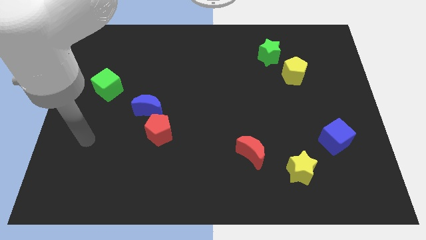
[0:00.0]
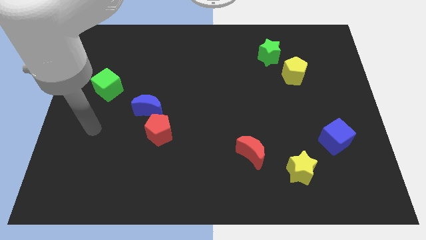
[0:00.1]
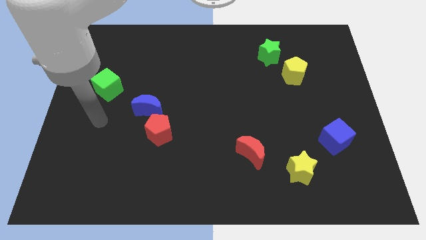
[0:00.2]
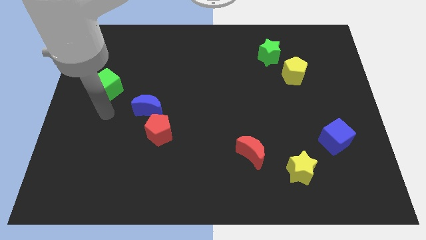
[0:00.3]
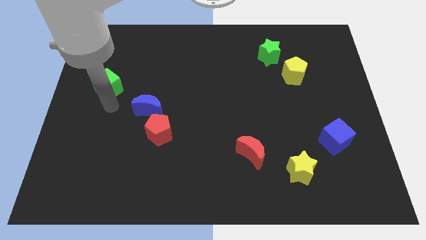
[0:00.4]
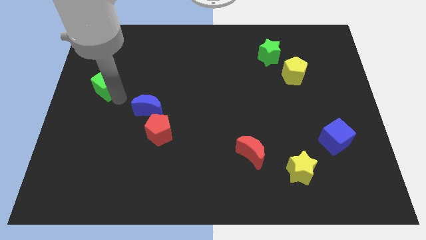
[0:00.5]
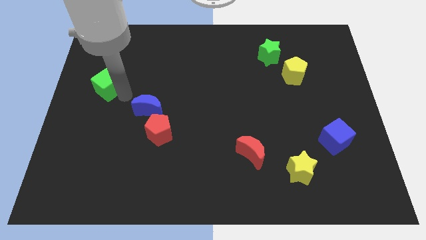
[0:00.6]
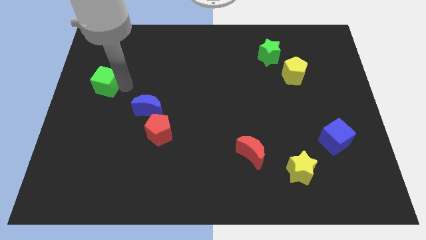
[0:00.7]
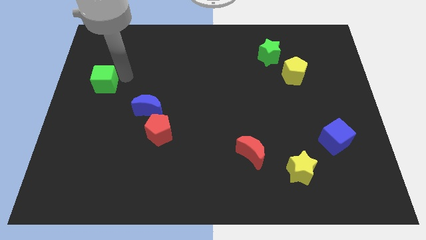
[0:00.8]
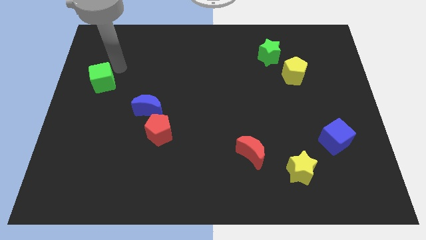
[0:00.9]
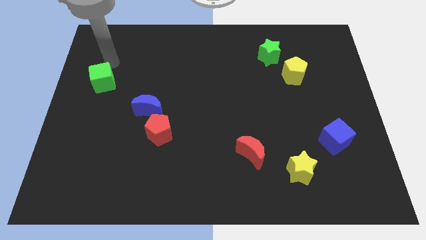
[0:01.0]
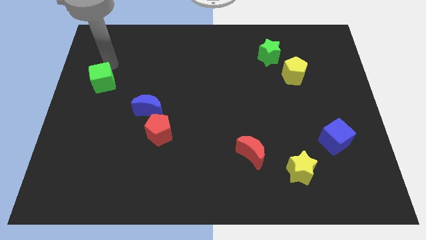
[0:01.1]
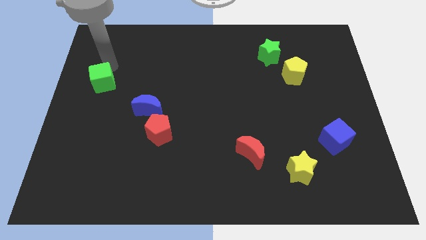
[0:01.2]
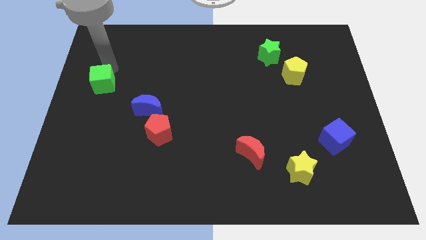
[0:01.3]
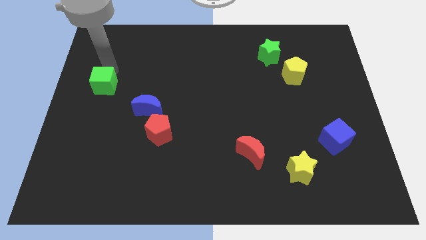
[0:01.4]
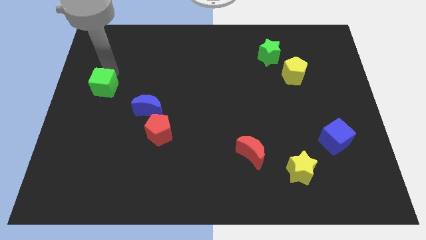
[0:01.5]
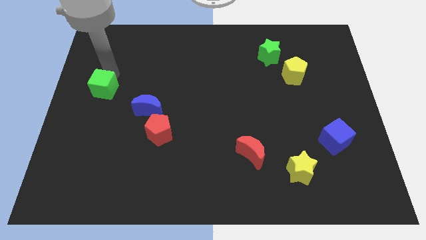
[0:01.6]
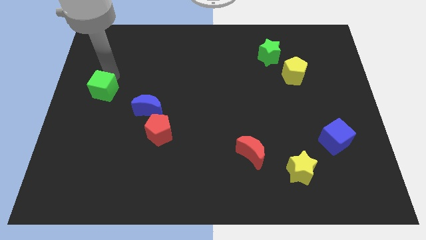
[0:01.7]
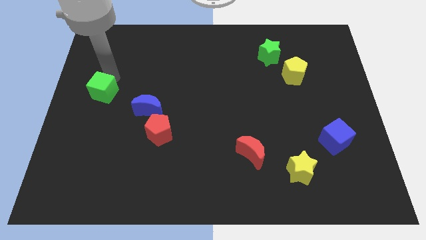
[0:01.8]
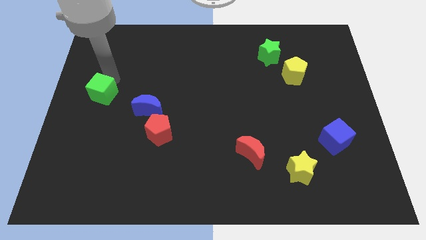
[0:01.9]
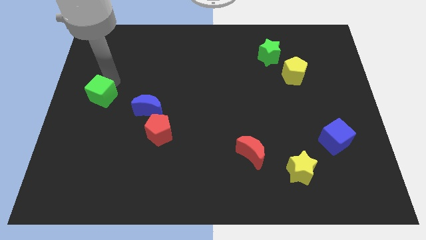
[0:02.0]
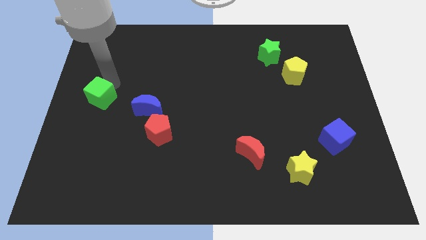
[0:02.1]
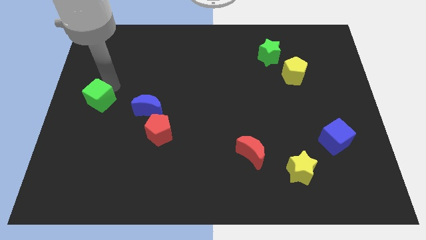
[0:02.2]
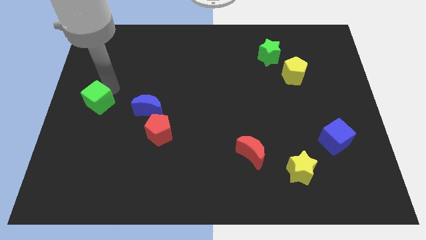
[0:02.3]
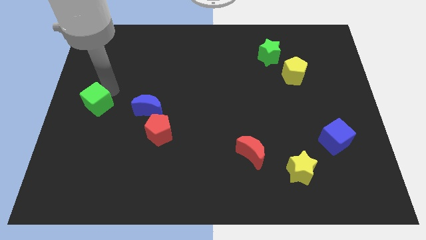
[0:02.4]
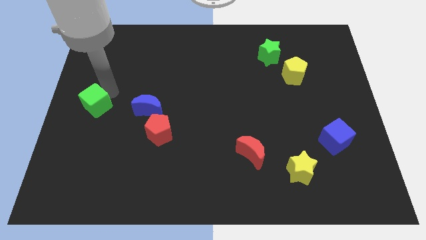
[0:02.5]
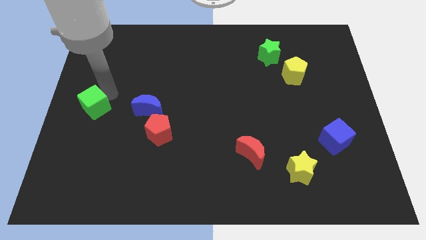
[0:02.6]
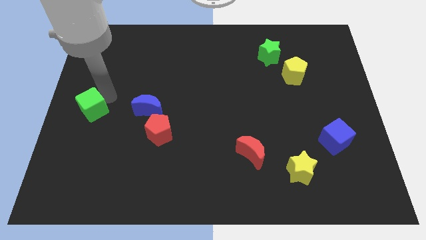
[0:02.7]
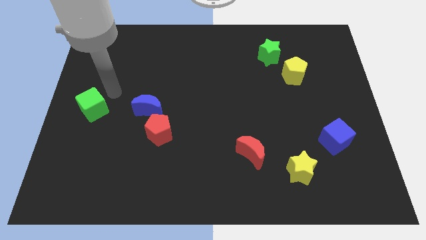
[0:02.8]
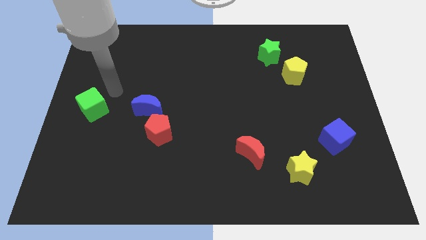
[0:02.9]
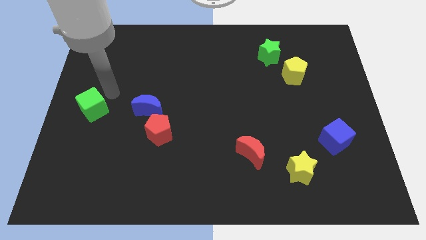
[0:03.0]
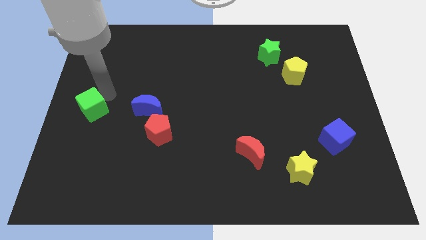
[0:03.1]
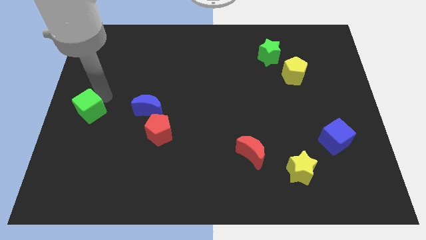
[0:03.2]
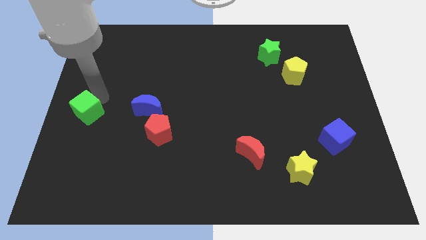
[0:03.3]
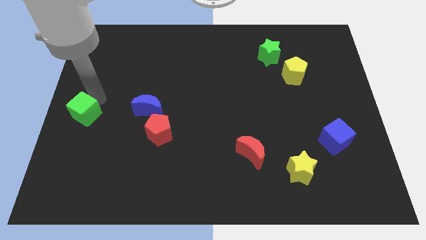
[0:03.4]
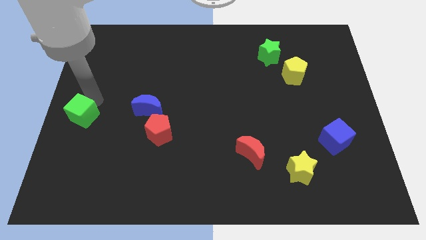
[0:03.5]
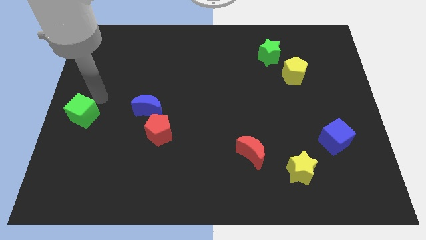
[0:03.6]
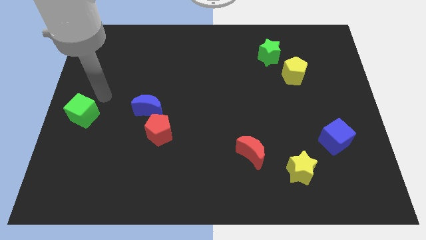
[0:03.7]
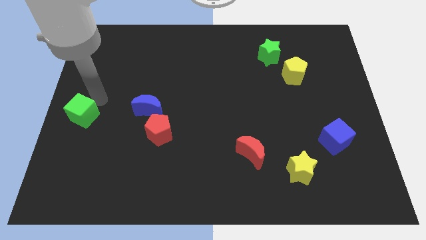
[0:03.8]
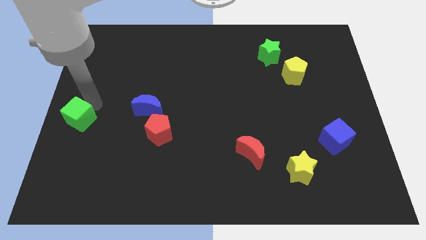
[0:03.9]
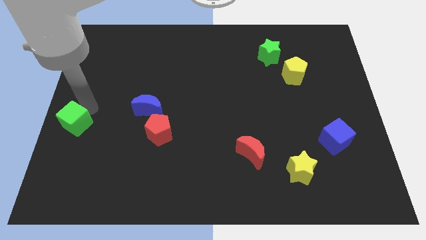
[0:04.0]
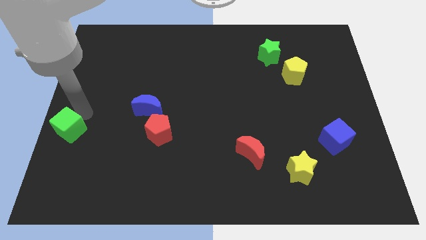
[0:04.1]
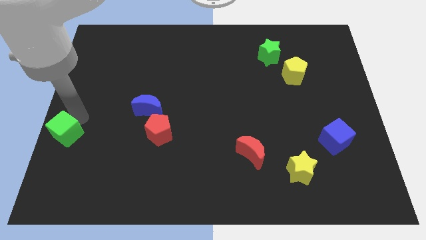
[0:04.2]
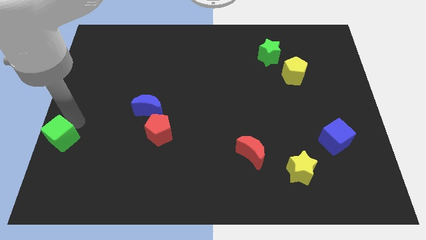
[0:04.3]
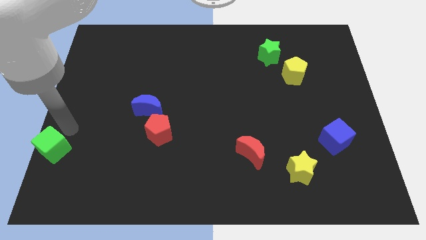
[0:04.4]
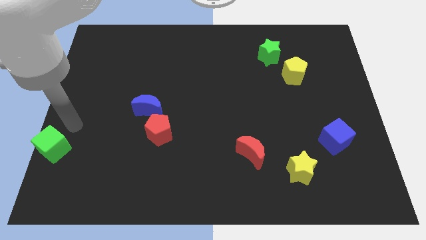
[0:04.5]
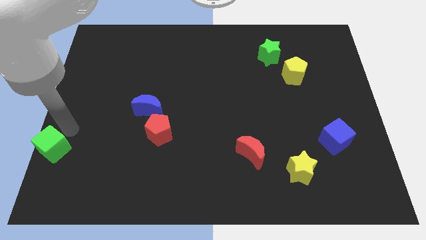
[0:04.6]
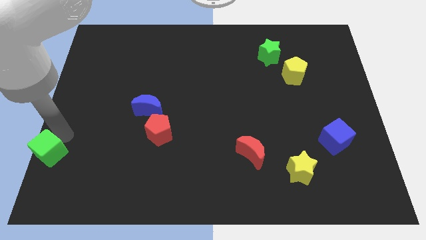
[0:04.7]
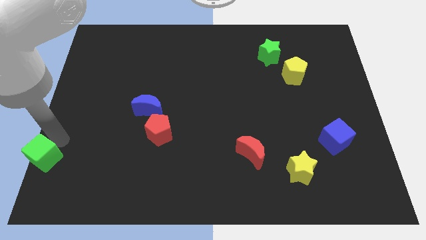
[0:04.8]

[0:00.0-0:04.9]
put the green cube to the lower left corner

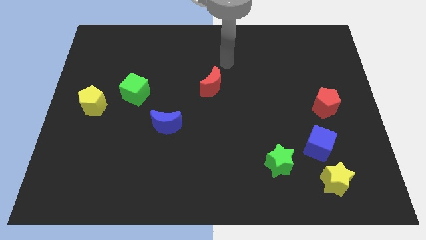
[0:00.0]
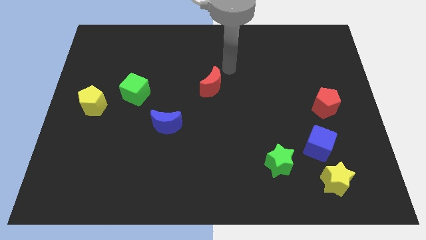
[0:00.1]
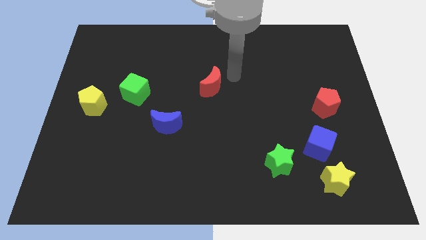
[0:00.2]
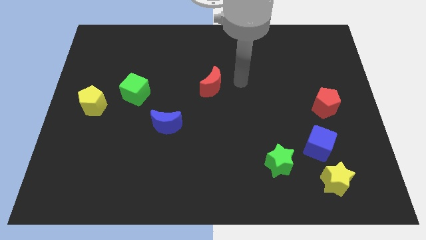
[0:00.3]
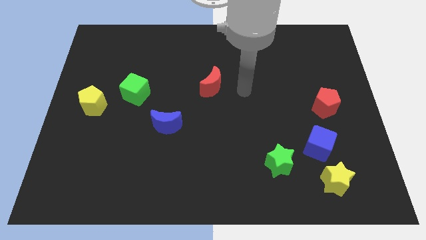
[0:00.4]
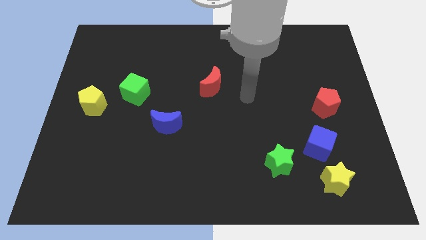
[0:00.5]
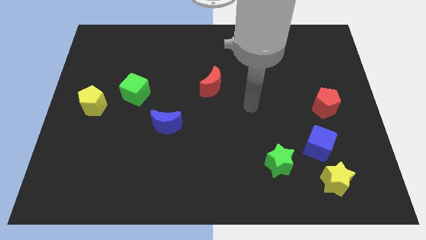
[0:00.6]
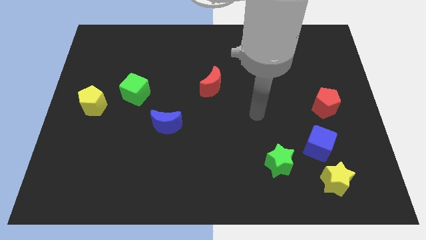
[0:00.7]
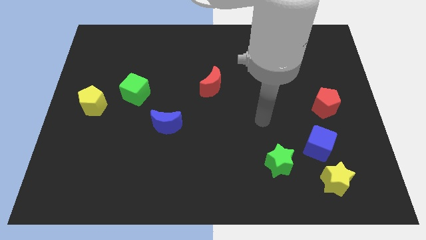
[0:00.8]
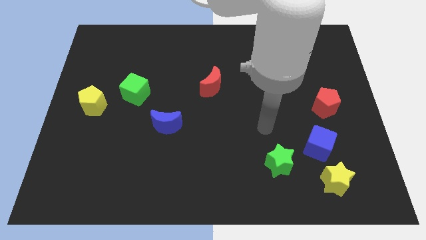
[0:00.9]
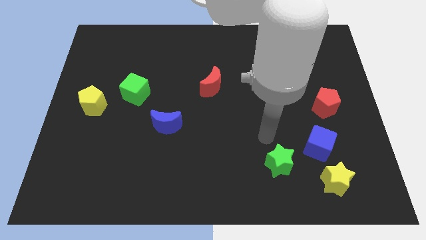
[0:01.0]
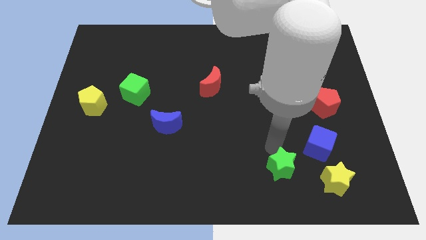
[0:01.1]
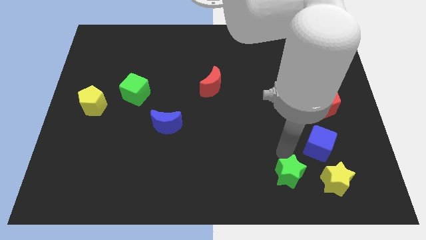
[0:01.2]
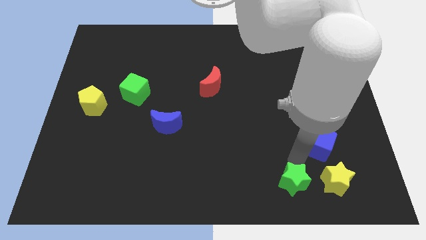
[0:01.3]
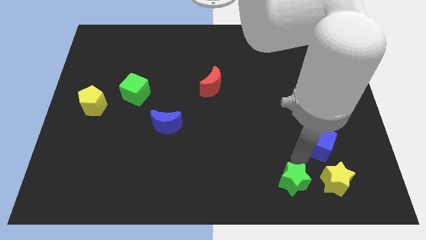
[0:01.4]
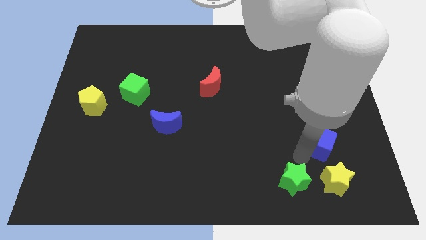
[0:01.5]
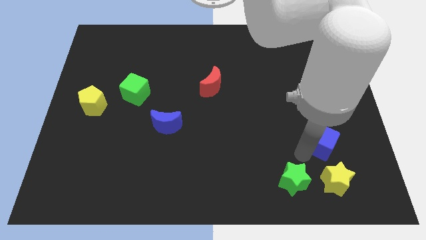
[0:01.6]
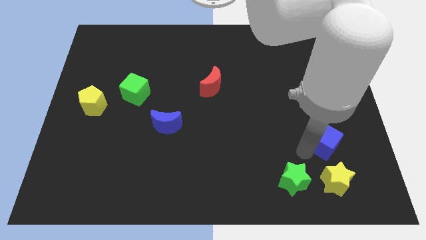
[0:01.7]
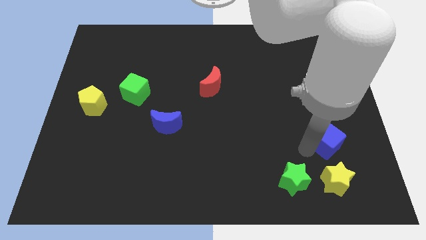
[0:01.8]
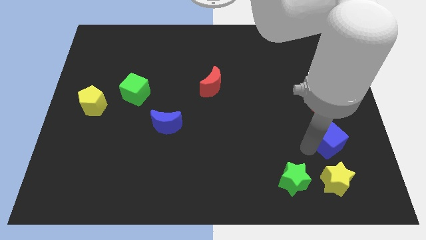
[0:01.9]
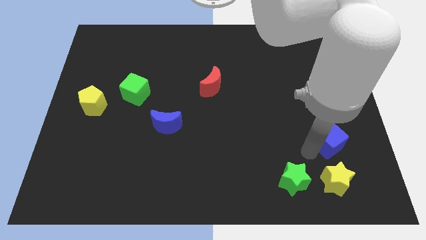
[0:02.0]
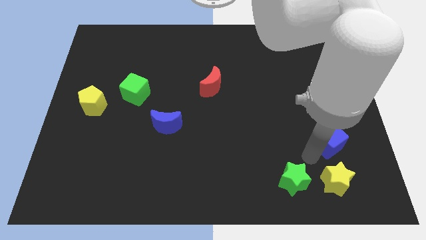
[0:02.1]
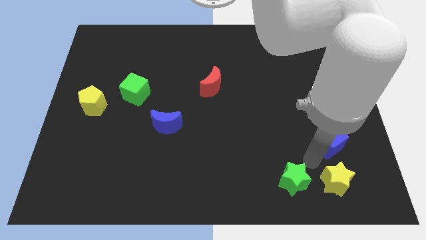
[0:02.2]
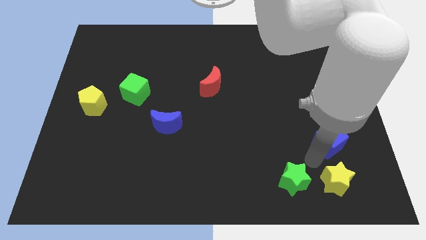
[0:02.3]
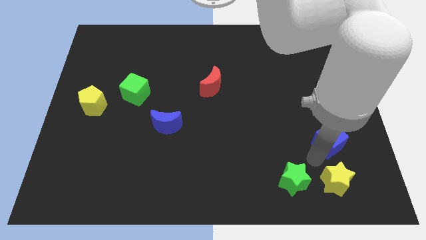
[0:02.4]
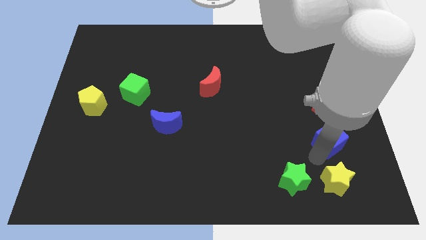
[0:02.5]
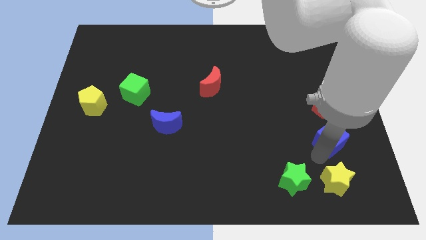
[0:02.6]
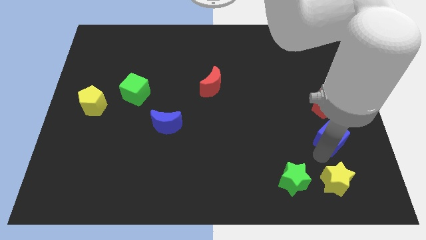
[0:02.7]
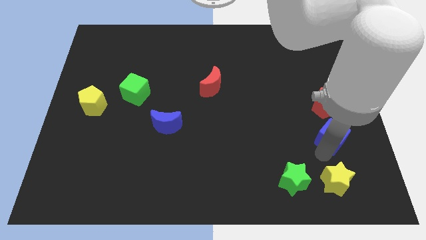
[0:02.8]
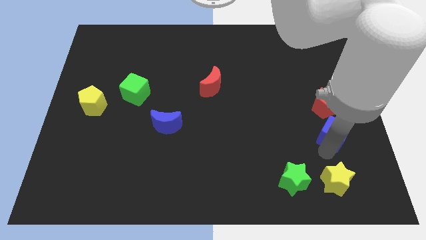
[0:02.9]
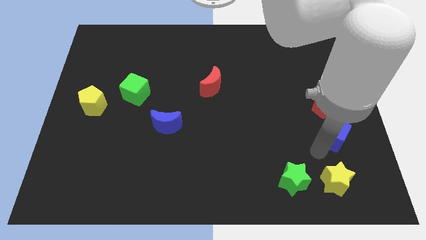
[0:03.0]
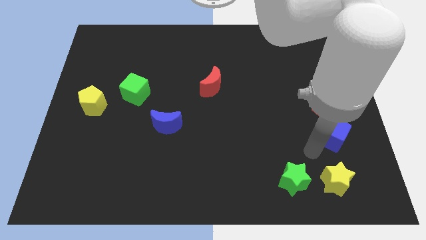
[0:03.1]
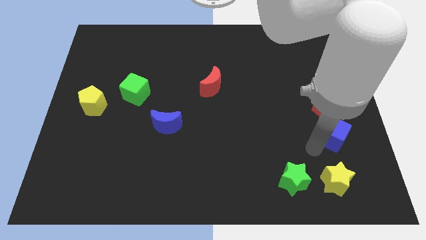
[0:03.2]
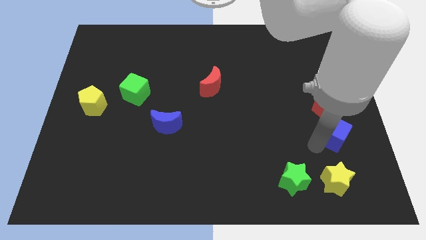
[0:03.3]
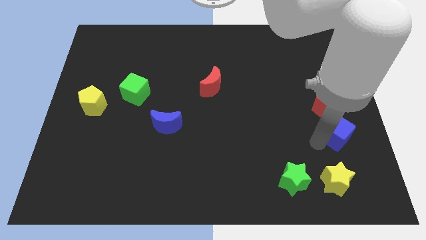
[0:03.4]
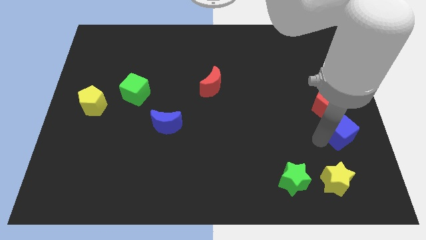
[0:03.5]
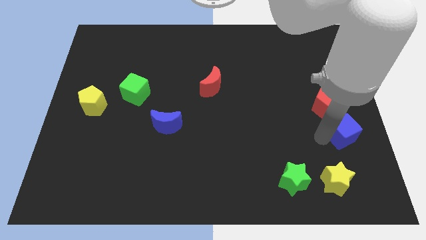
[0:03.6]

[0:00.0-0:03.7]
put the blue cube to the right side of the board
